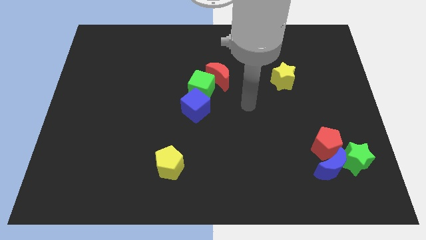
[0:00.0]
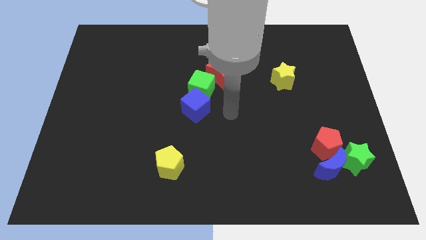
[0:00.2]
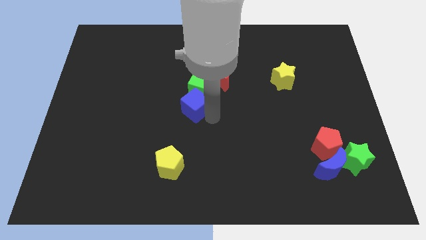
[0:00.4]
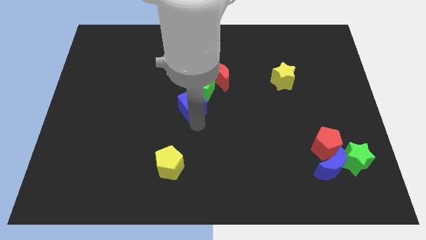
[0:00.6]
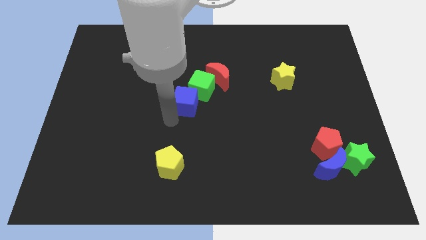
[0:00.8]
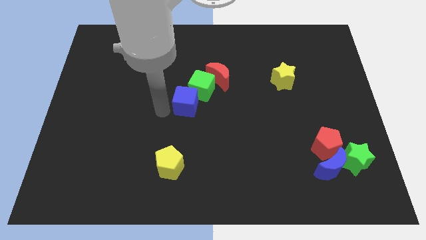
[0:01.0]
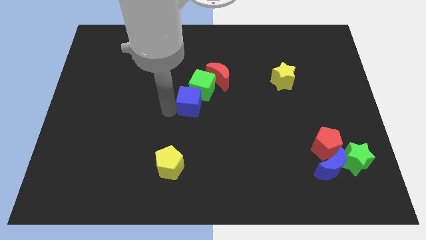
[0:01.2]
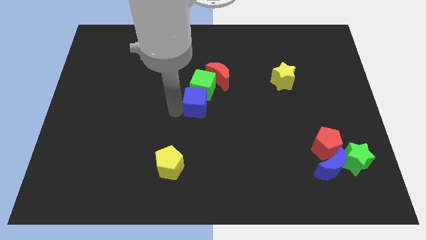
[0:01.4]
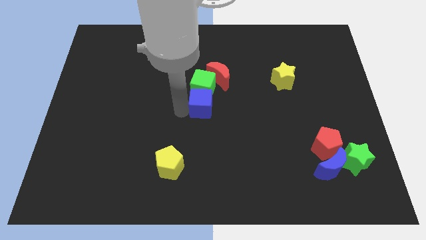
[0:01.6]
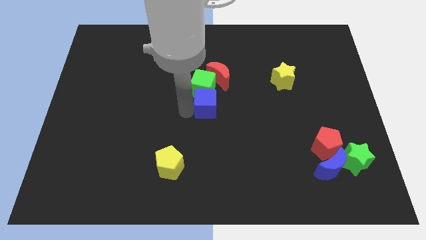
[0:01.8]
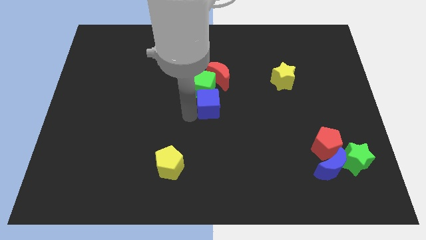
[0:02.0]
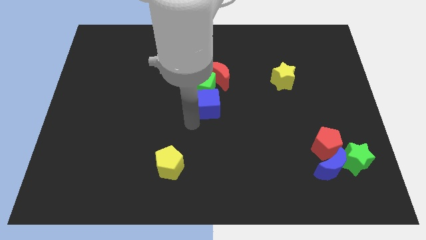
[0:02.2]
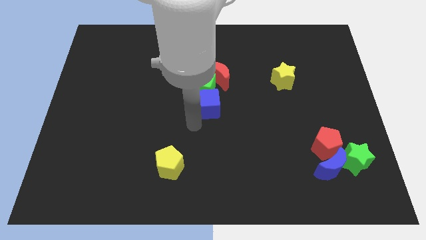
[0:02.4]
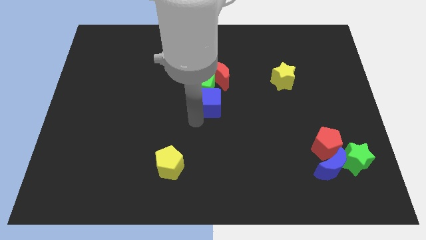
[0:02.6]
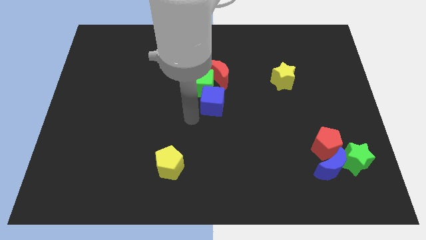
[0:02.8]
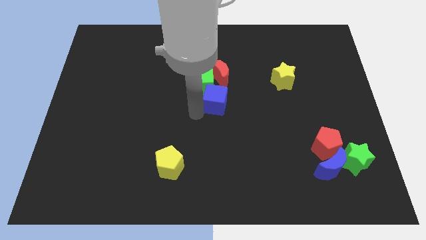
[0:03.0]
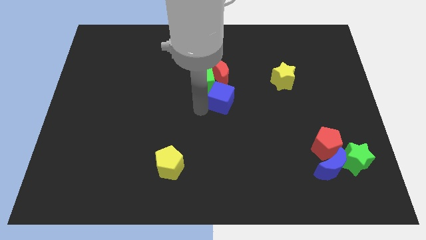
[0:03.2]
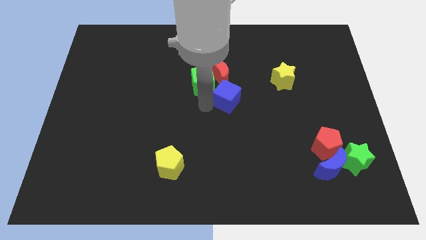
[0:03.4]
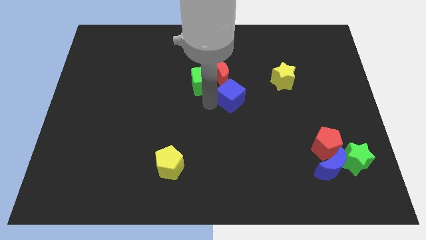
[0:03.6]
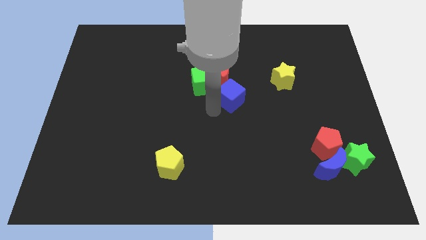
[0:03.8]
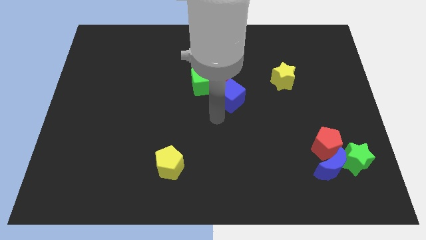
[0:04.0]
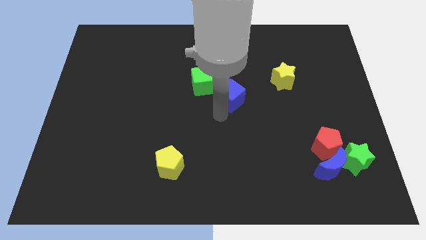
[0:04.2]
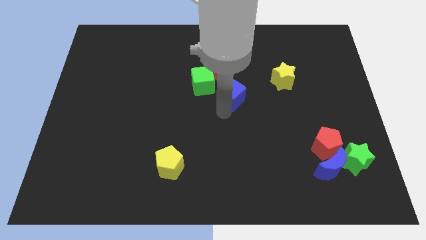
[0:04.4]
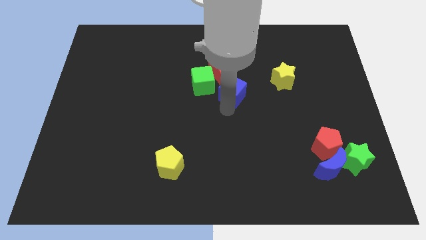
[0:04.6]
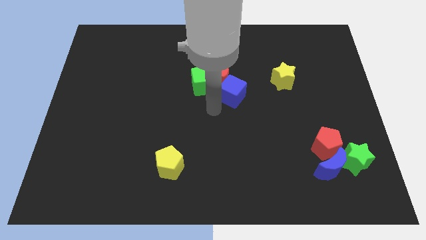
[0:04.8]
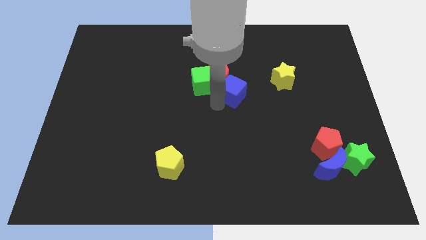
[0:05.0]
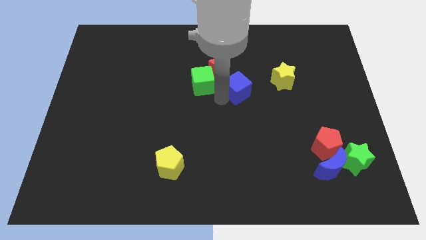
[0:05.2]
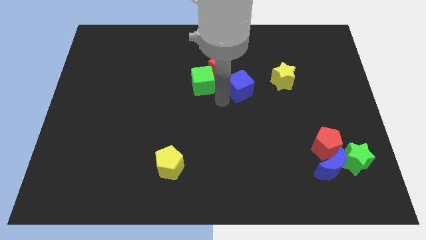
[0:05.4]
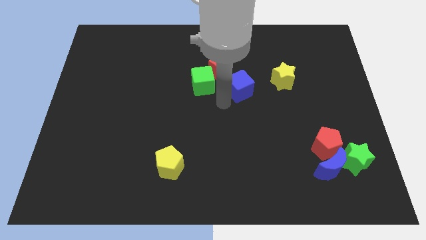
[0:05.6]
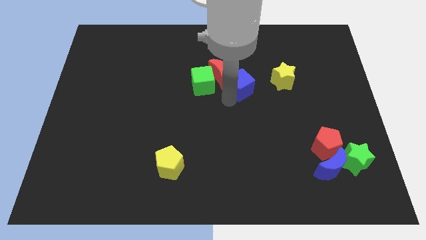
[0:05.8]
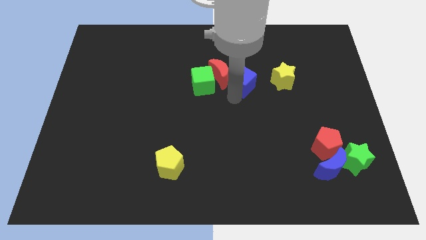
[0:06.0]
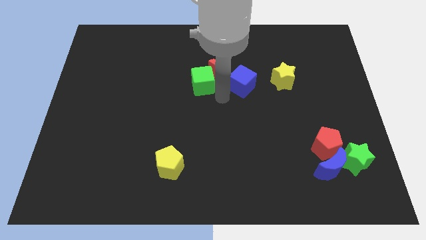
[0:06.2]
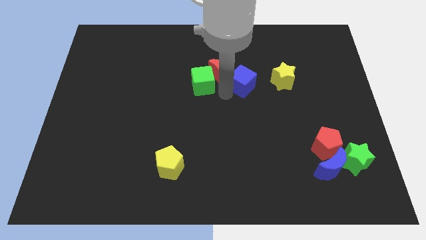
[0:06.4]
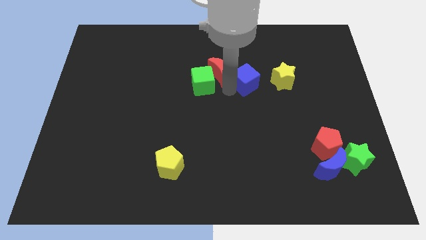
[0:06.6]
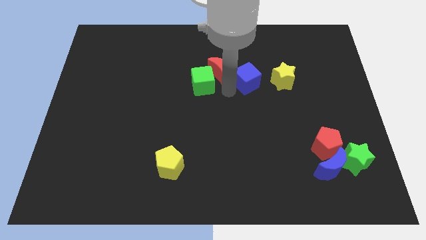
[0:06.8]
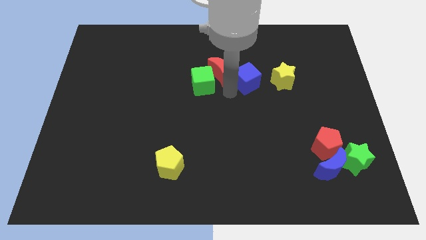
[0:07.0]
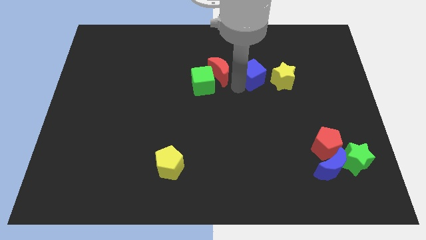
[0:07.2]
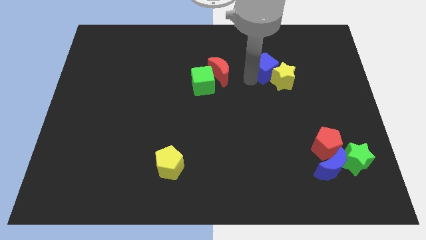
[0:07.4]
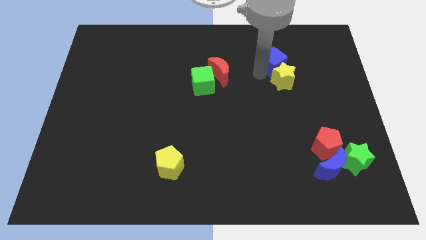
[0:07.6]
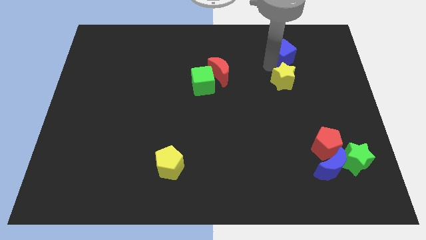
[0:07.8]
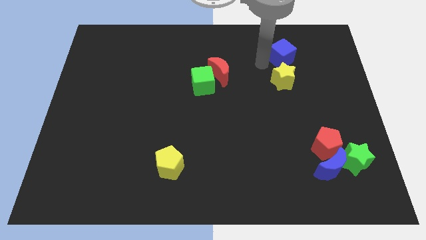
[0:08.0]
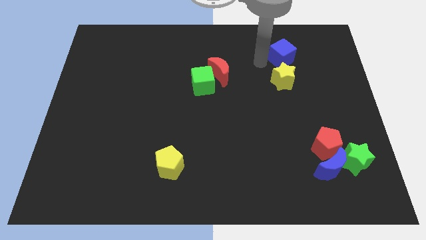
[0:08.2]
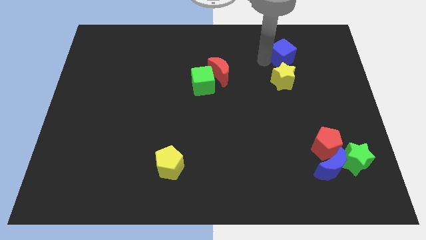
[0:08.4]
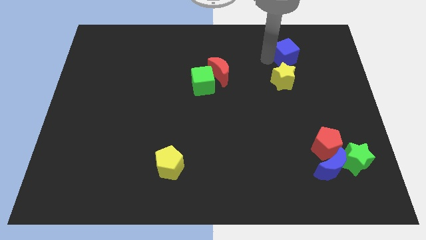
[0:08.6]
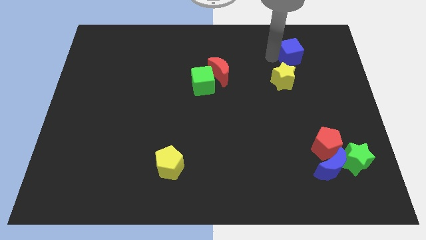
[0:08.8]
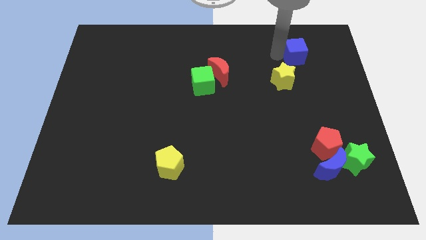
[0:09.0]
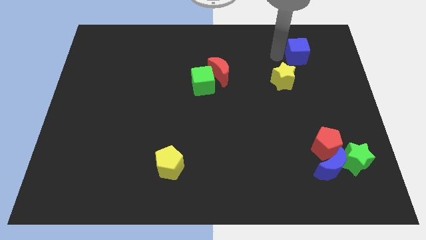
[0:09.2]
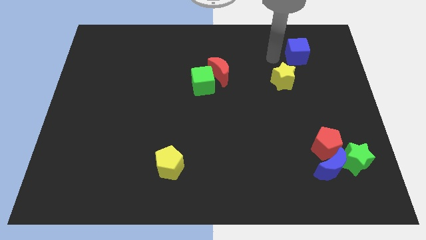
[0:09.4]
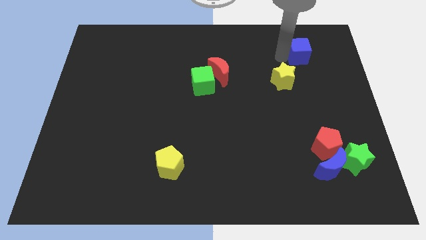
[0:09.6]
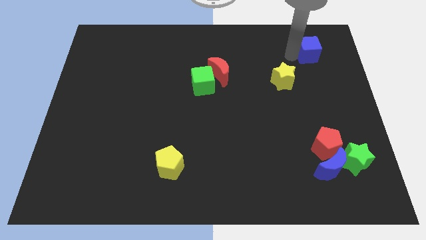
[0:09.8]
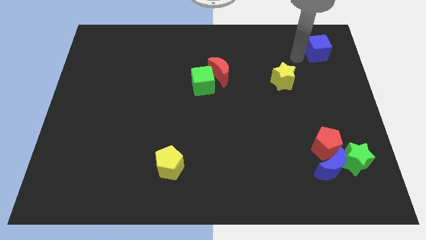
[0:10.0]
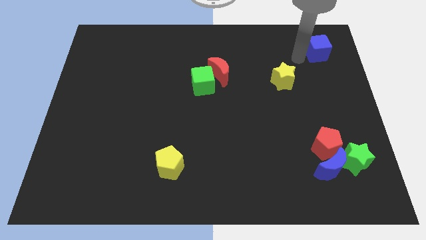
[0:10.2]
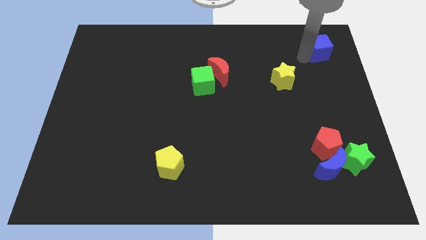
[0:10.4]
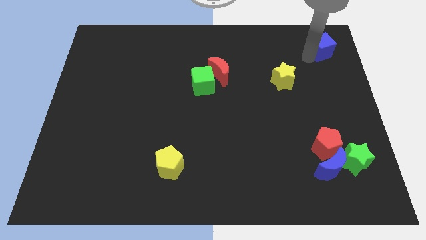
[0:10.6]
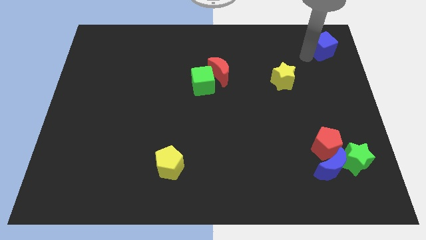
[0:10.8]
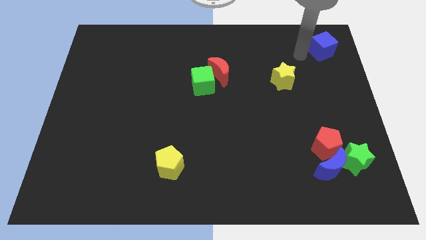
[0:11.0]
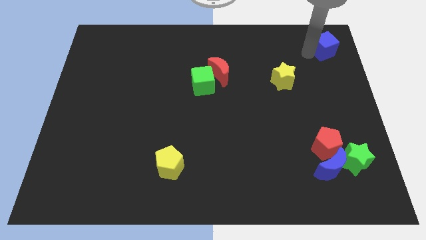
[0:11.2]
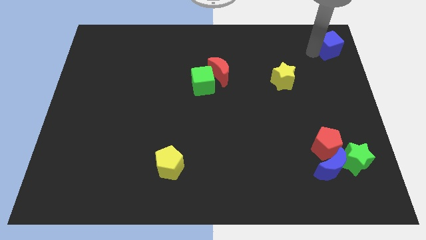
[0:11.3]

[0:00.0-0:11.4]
slide the blue cube to the top right corner

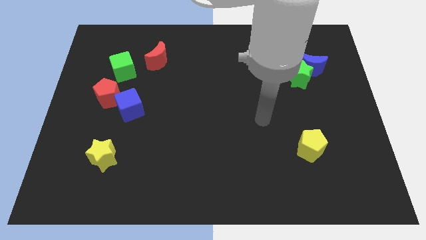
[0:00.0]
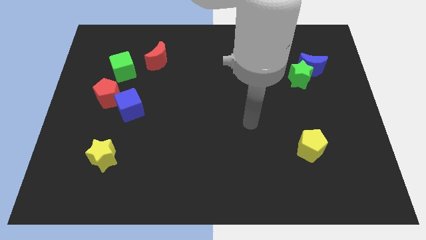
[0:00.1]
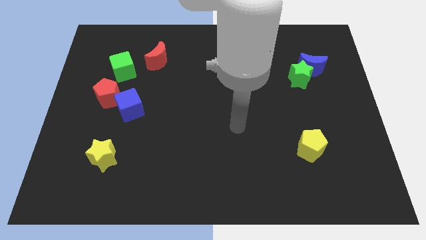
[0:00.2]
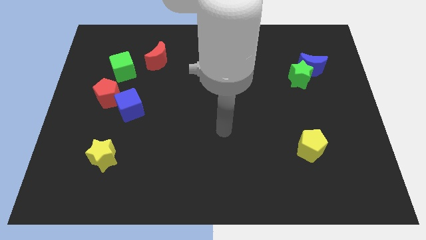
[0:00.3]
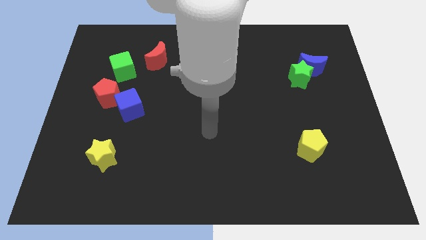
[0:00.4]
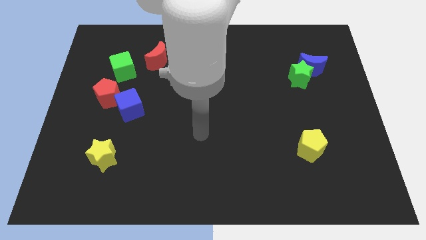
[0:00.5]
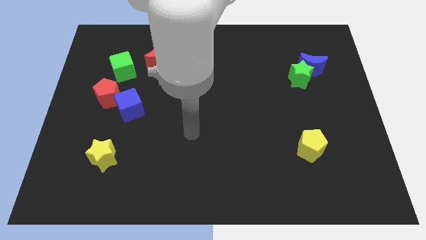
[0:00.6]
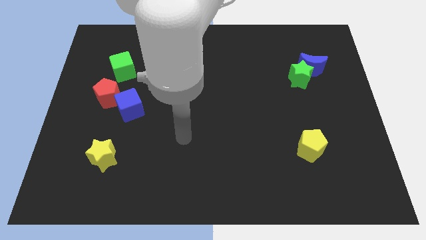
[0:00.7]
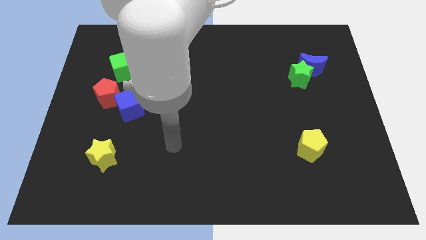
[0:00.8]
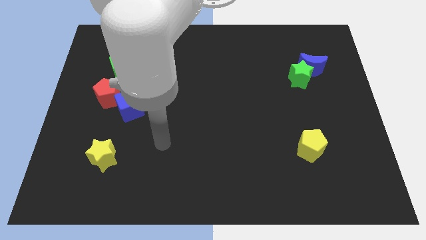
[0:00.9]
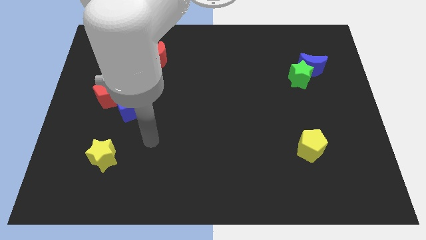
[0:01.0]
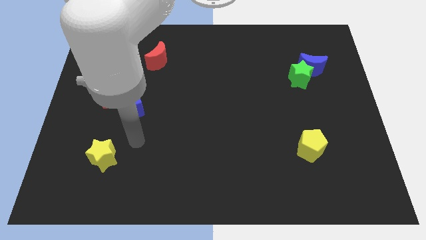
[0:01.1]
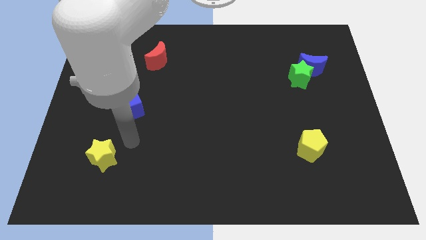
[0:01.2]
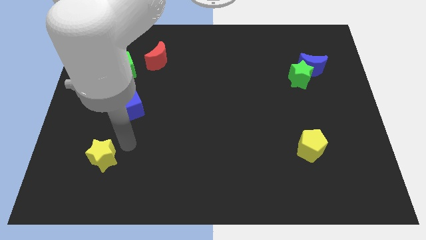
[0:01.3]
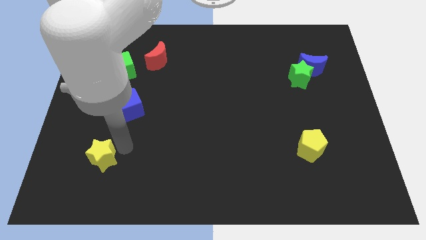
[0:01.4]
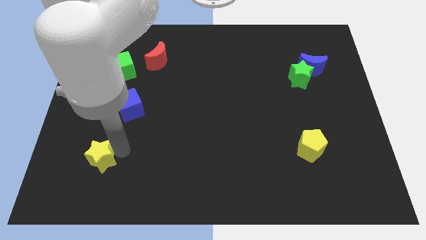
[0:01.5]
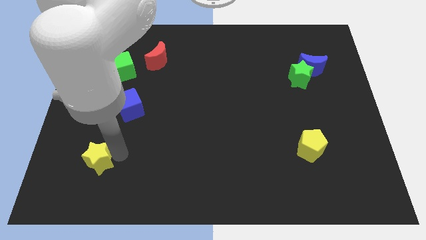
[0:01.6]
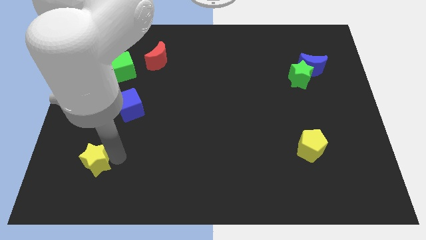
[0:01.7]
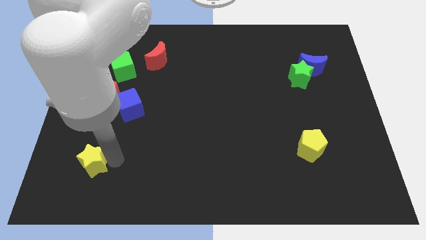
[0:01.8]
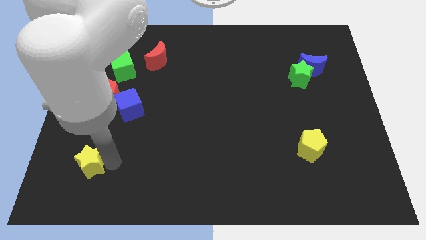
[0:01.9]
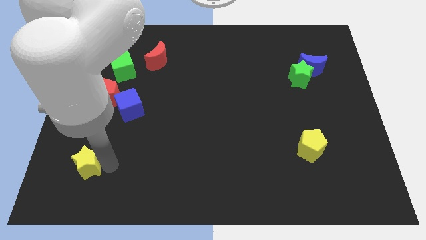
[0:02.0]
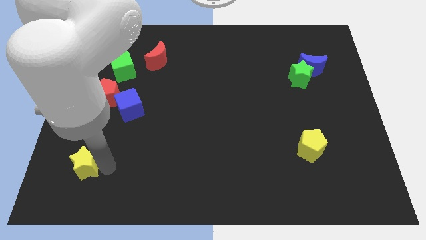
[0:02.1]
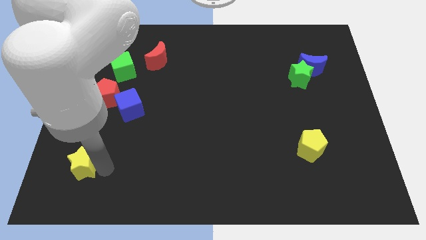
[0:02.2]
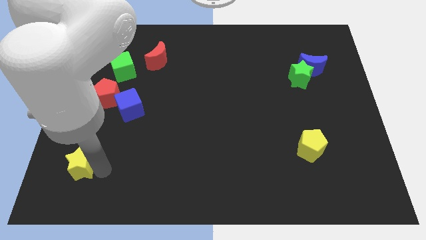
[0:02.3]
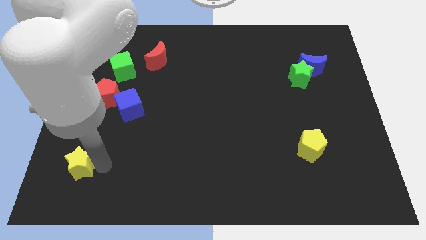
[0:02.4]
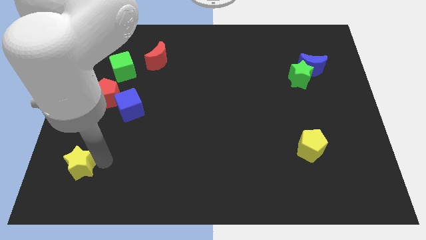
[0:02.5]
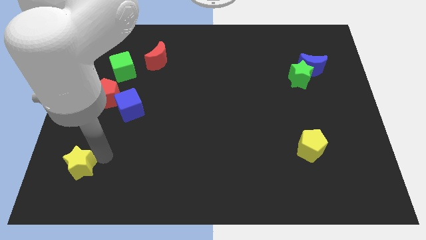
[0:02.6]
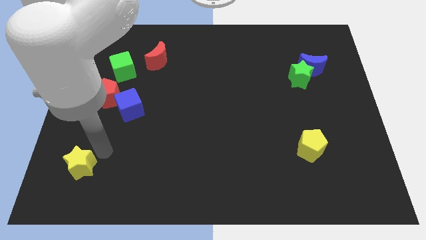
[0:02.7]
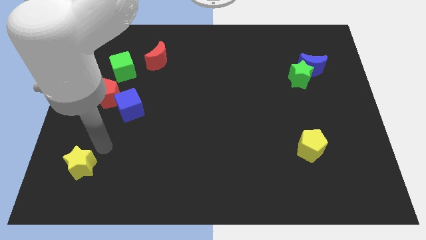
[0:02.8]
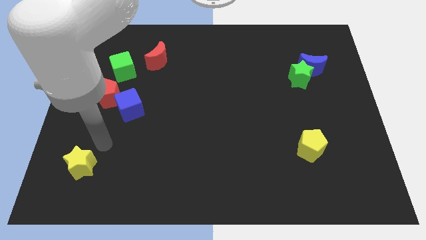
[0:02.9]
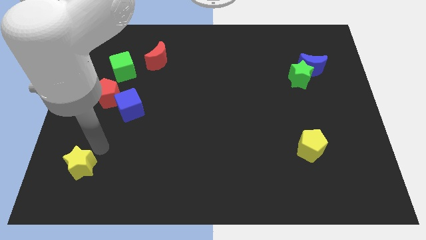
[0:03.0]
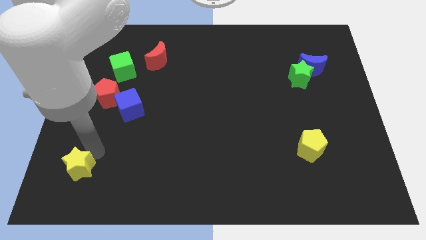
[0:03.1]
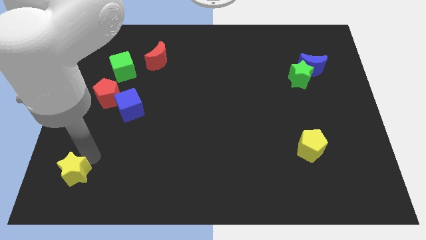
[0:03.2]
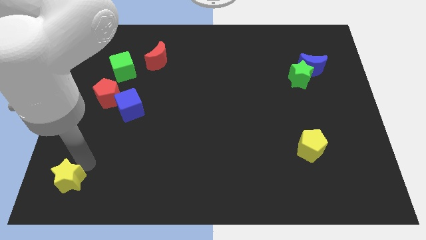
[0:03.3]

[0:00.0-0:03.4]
slide the yellow star to the bottom left of the board
